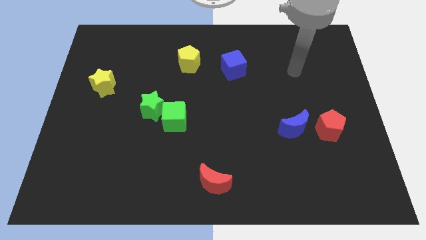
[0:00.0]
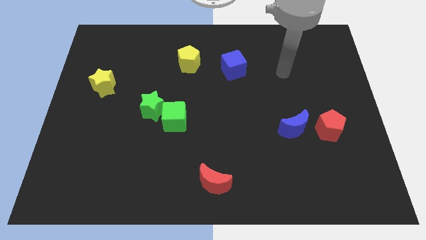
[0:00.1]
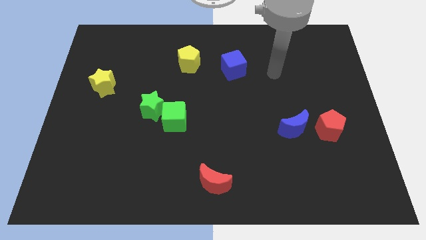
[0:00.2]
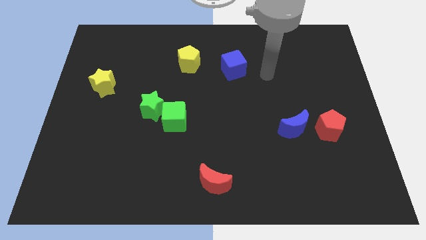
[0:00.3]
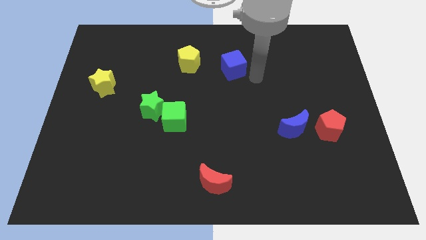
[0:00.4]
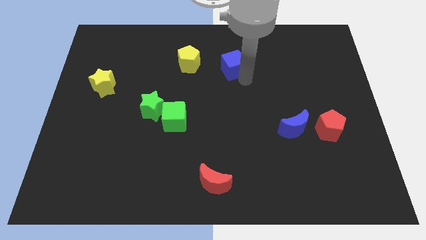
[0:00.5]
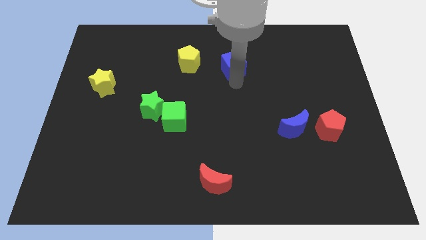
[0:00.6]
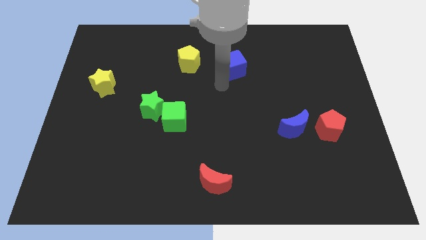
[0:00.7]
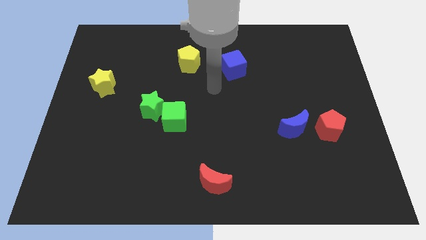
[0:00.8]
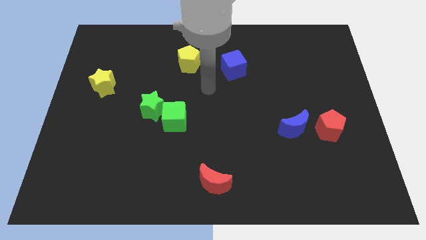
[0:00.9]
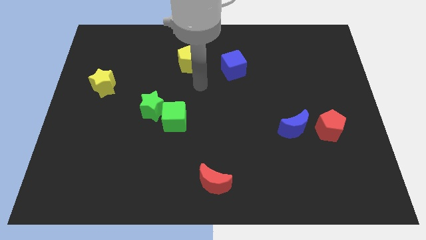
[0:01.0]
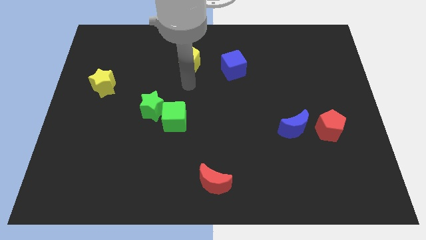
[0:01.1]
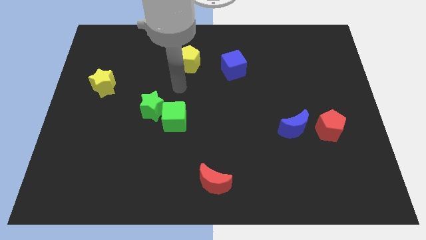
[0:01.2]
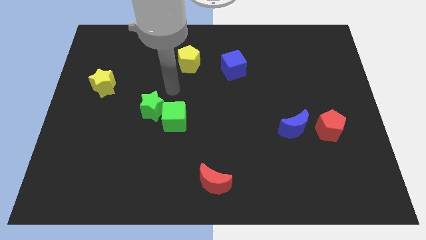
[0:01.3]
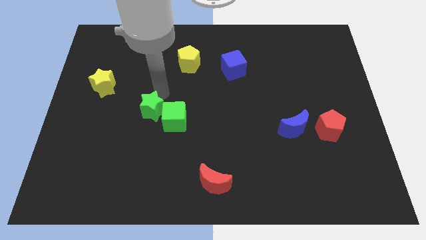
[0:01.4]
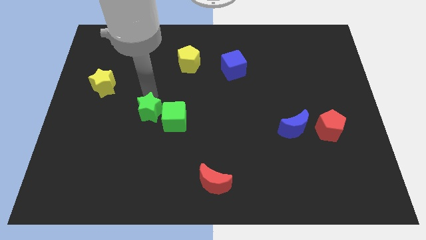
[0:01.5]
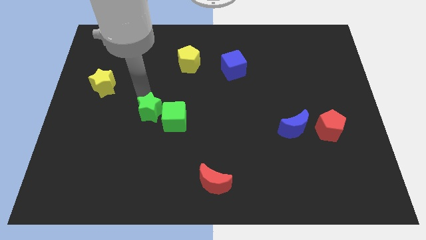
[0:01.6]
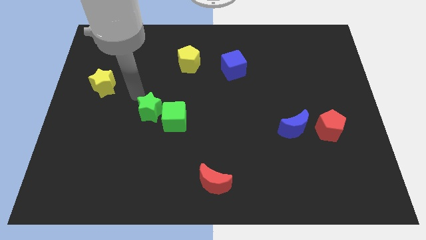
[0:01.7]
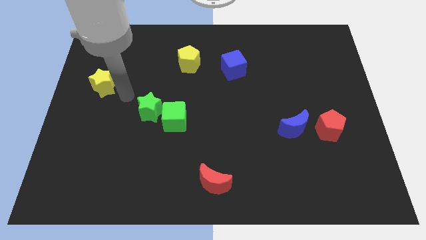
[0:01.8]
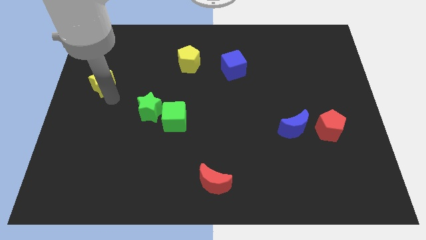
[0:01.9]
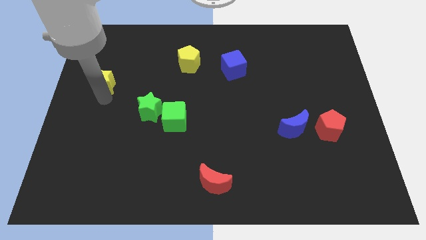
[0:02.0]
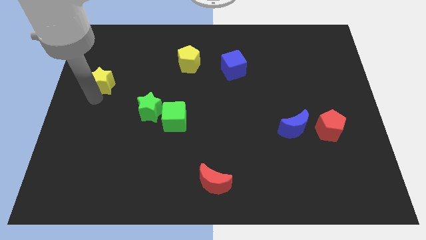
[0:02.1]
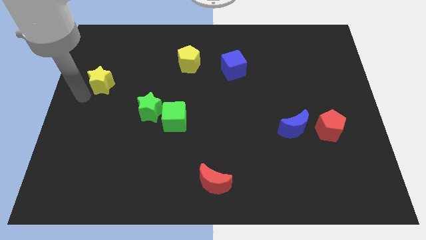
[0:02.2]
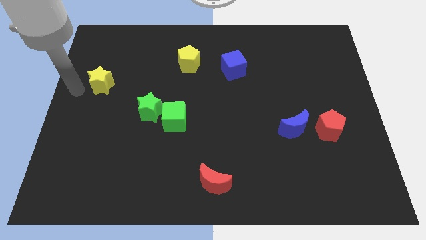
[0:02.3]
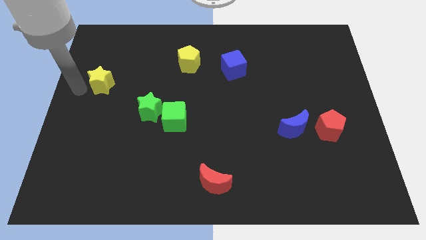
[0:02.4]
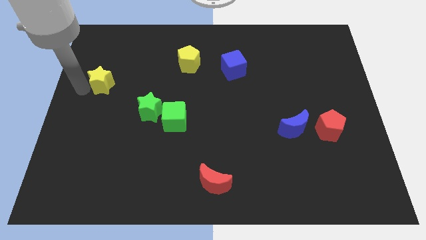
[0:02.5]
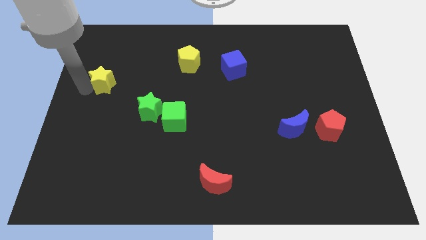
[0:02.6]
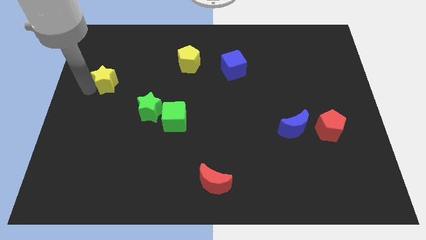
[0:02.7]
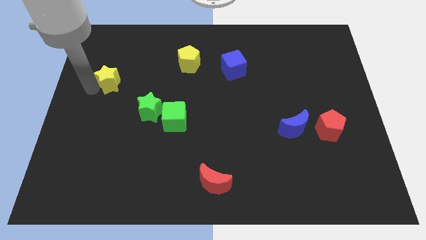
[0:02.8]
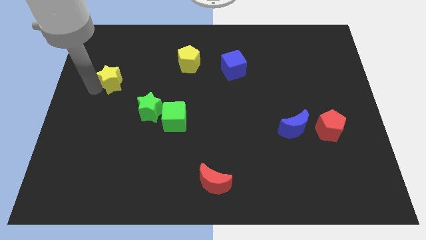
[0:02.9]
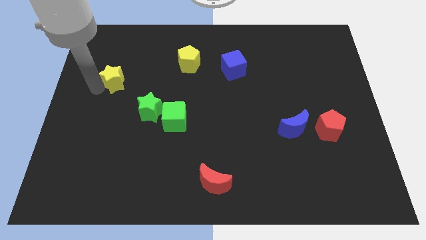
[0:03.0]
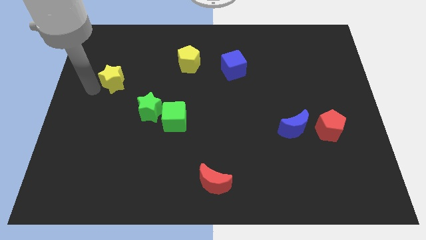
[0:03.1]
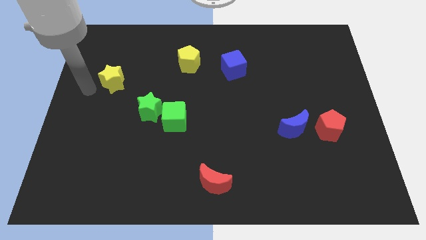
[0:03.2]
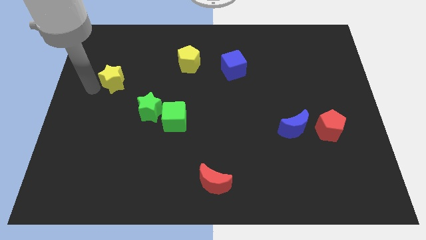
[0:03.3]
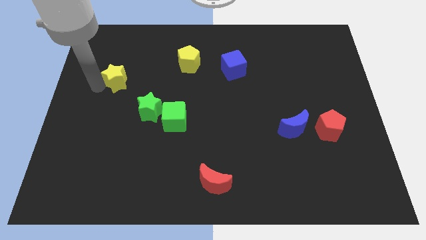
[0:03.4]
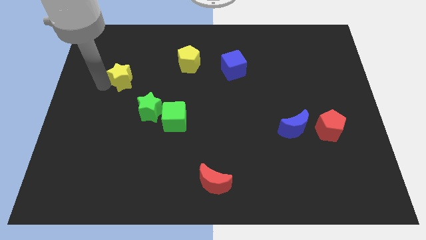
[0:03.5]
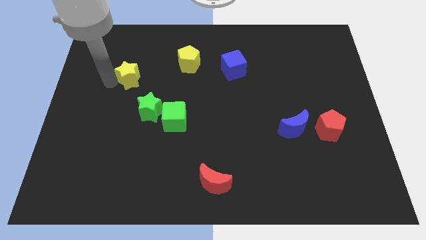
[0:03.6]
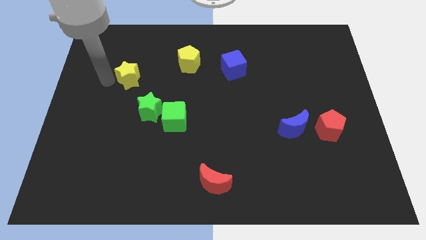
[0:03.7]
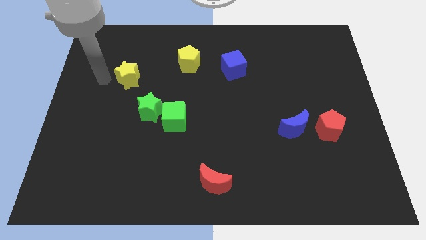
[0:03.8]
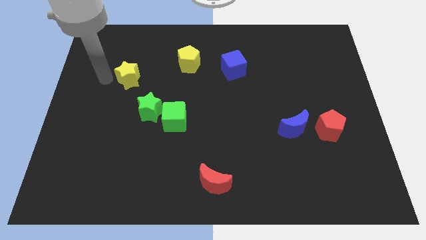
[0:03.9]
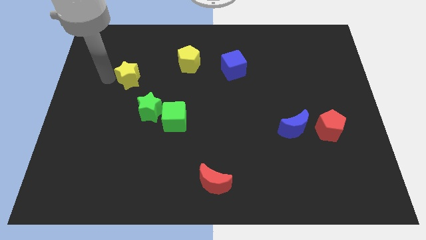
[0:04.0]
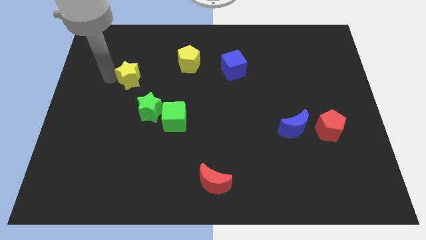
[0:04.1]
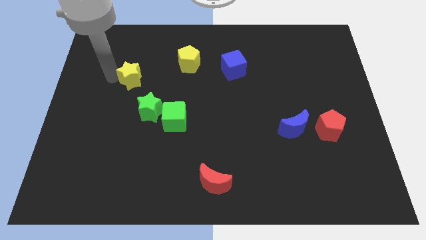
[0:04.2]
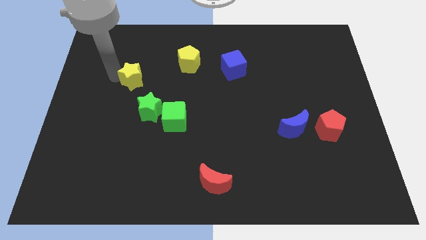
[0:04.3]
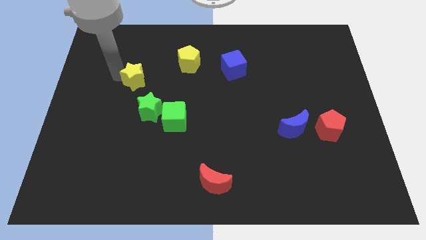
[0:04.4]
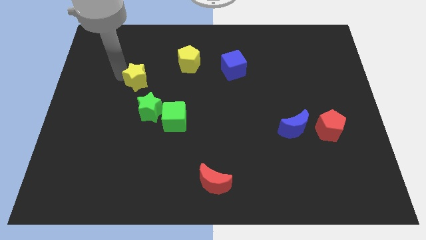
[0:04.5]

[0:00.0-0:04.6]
put the yellow star to the top side of the green star

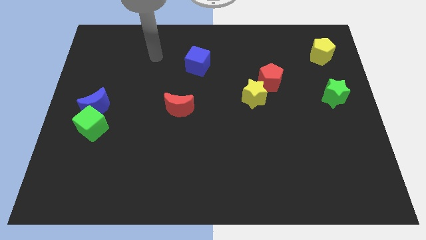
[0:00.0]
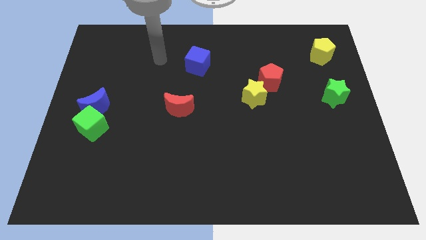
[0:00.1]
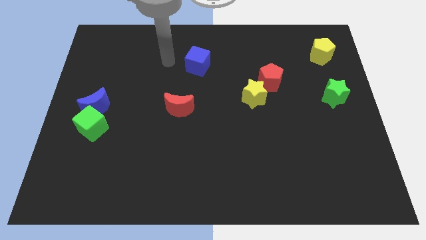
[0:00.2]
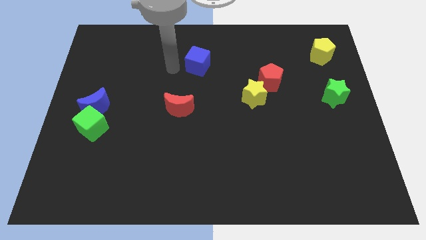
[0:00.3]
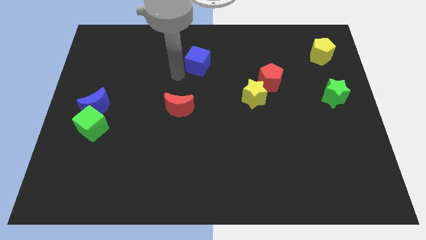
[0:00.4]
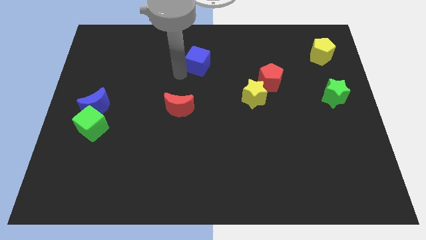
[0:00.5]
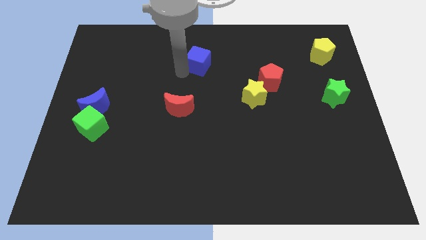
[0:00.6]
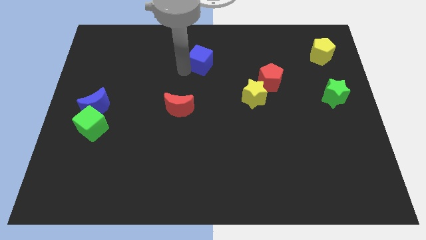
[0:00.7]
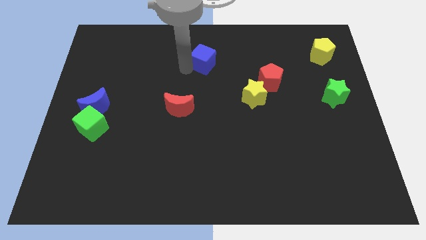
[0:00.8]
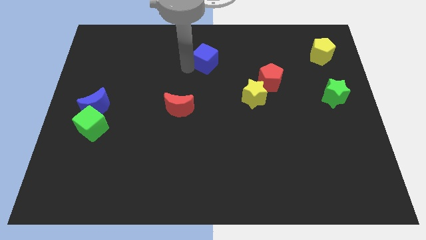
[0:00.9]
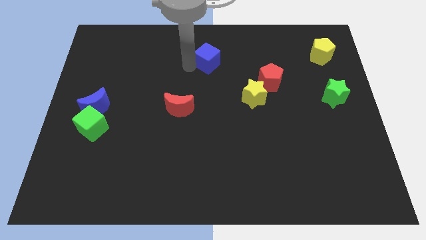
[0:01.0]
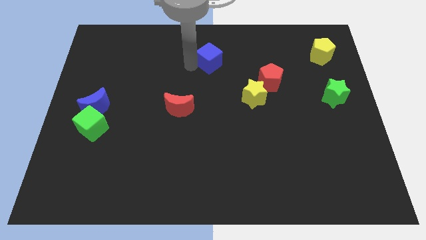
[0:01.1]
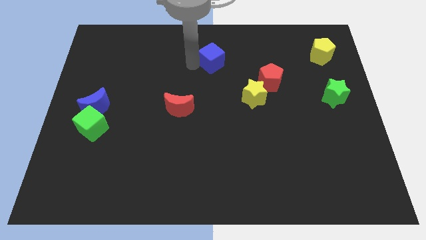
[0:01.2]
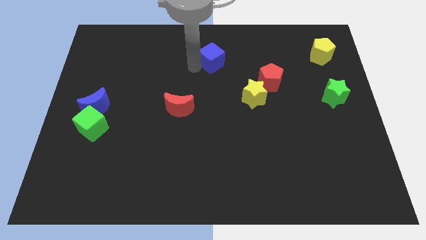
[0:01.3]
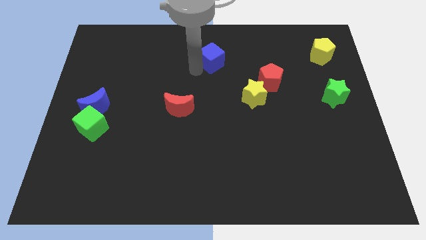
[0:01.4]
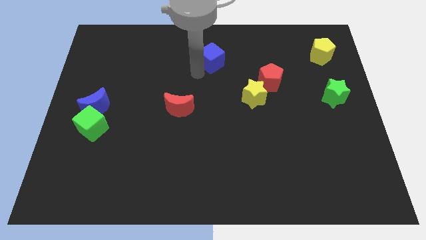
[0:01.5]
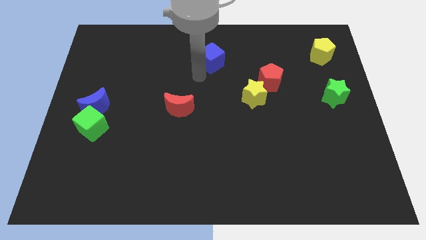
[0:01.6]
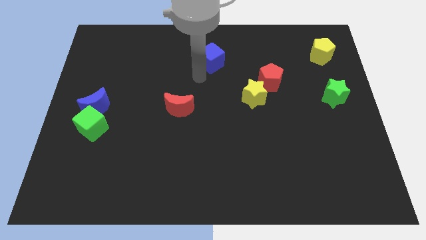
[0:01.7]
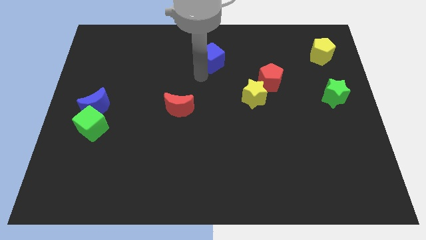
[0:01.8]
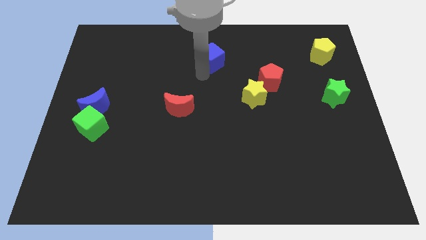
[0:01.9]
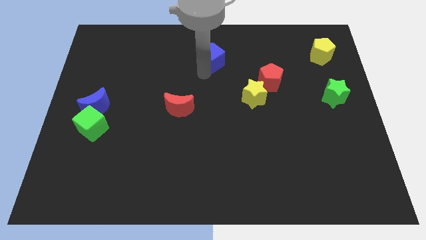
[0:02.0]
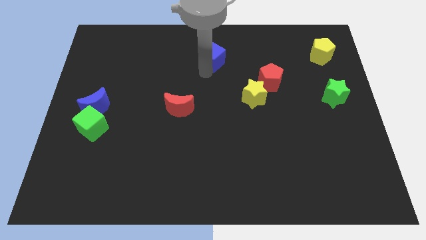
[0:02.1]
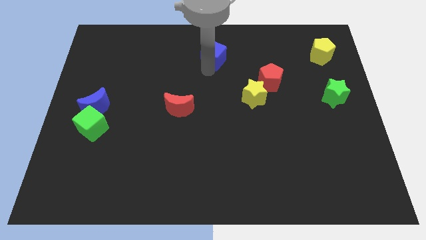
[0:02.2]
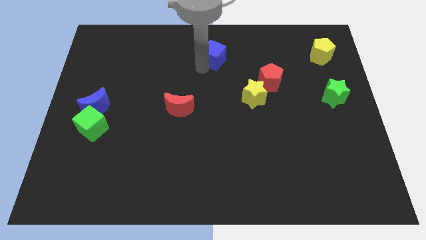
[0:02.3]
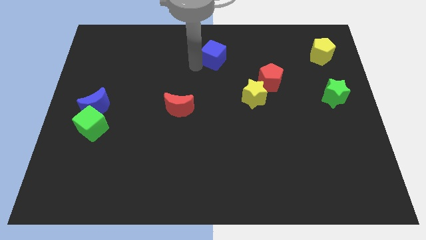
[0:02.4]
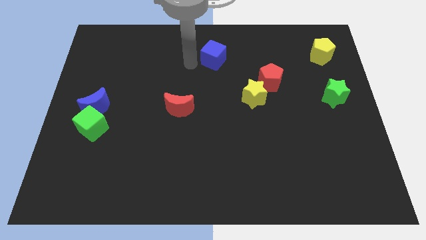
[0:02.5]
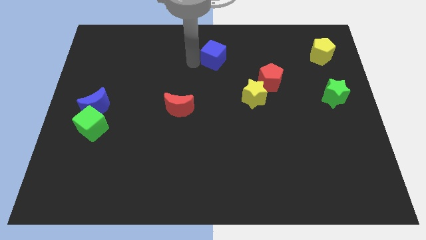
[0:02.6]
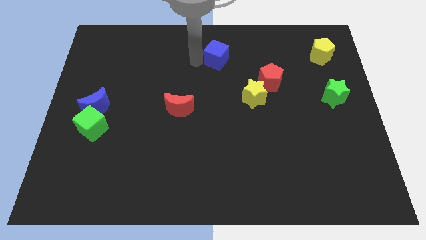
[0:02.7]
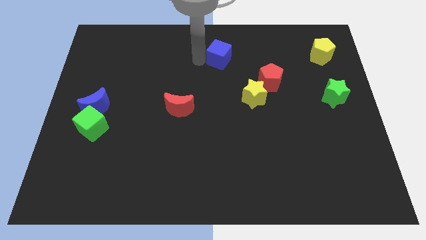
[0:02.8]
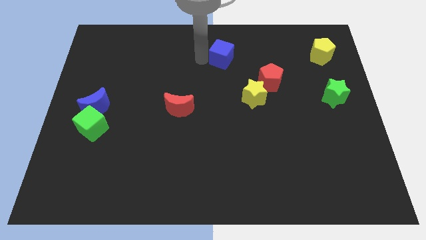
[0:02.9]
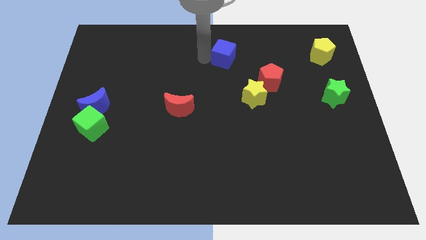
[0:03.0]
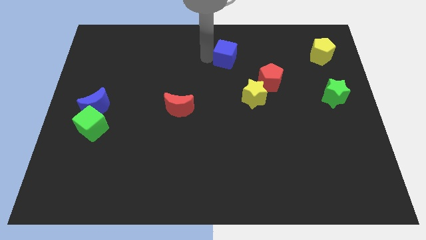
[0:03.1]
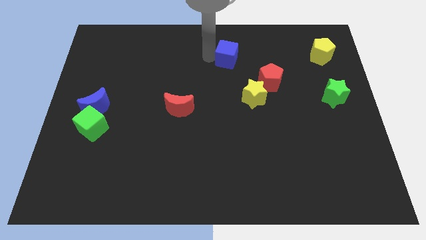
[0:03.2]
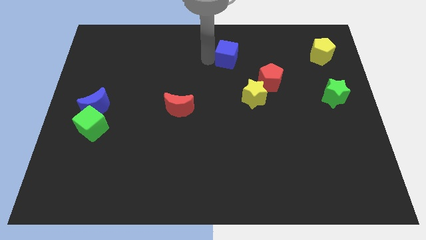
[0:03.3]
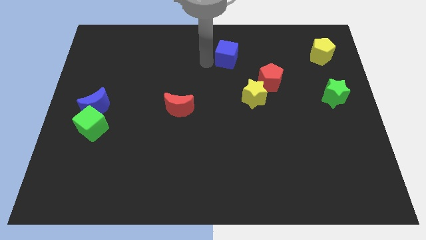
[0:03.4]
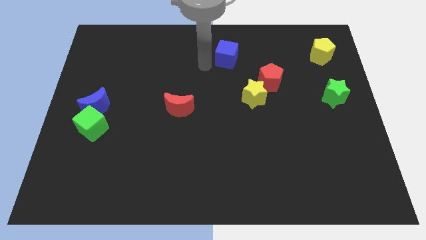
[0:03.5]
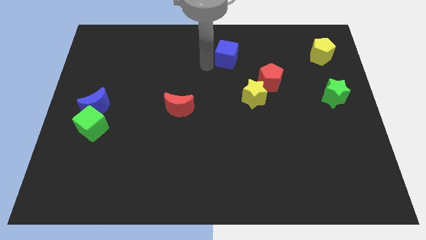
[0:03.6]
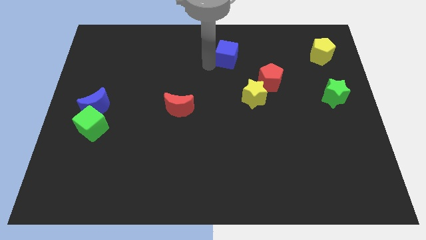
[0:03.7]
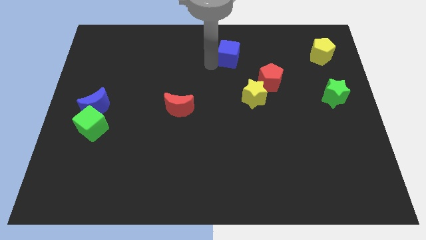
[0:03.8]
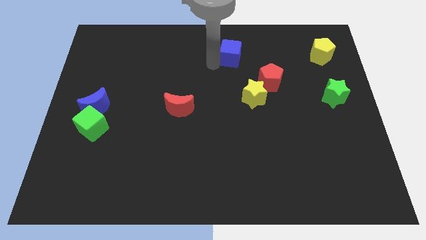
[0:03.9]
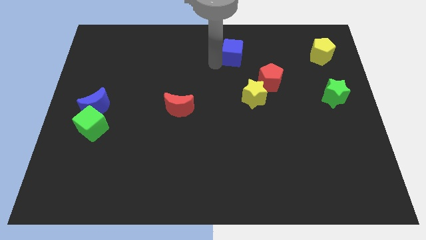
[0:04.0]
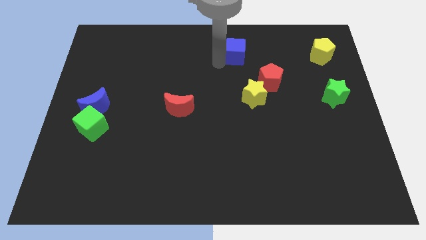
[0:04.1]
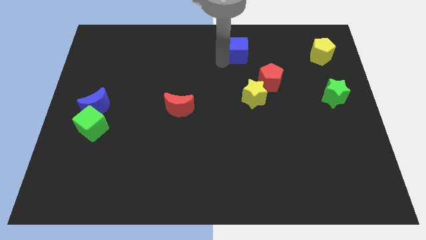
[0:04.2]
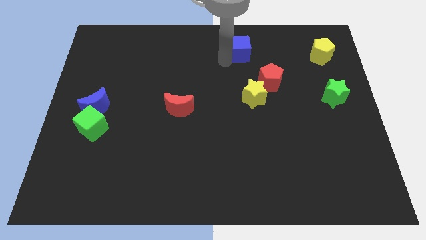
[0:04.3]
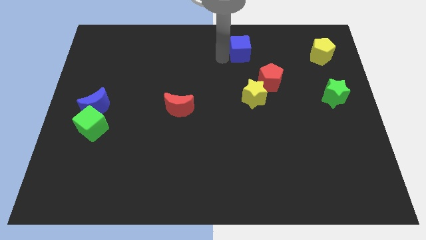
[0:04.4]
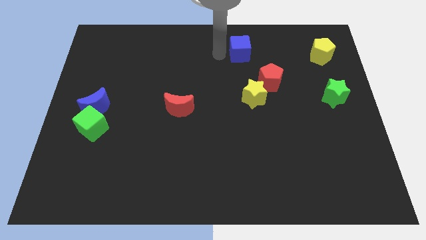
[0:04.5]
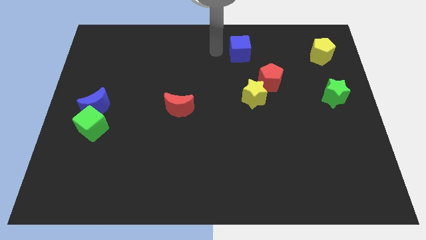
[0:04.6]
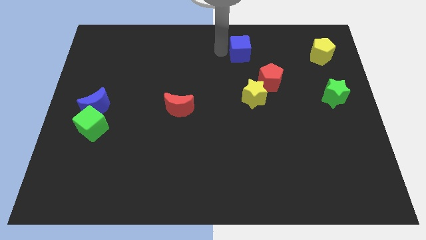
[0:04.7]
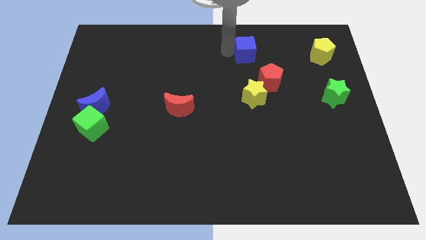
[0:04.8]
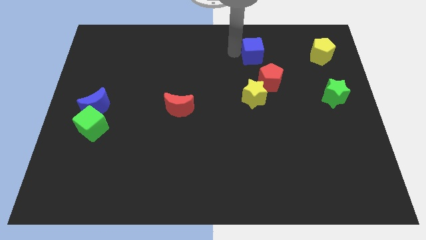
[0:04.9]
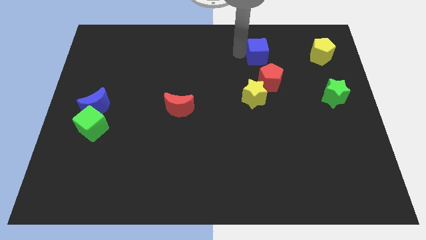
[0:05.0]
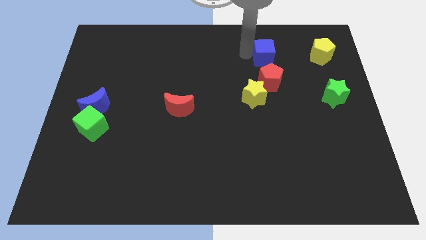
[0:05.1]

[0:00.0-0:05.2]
push the blue cube to the left side of the yellow pentagon
